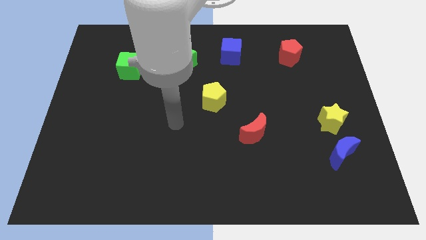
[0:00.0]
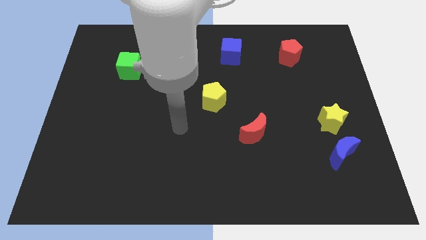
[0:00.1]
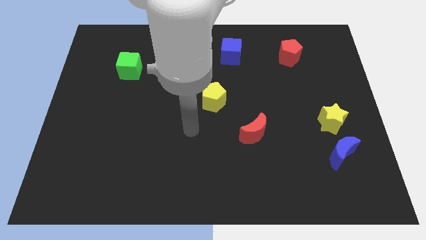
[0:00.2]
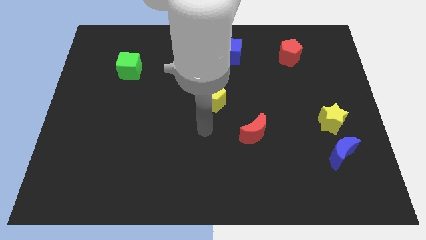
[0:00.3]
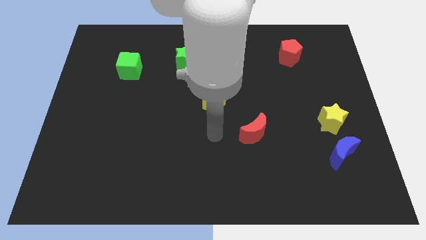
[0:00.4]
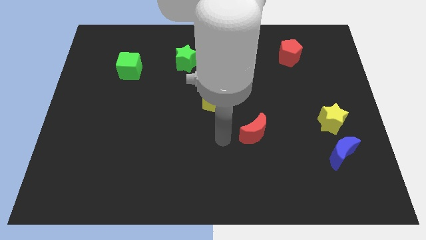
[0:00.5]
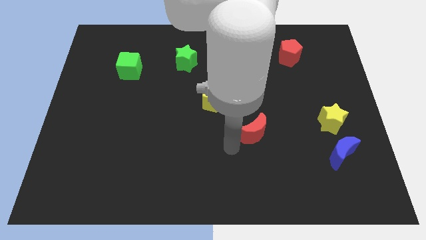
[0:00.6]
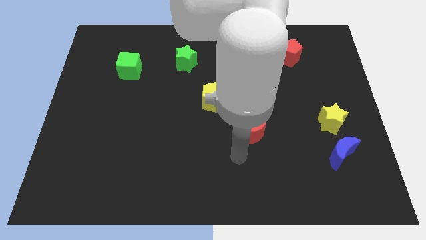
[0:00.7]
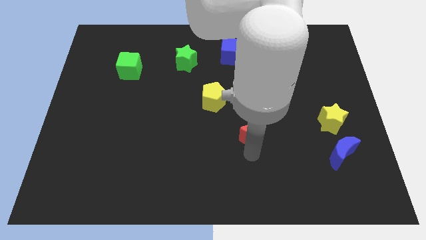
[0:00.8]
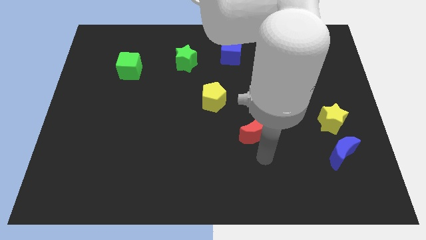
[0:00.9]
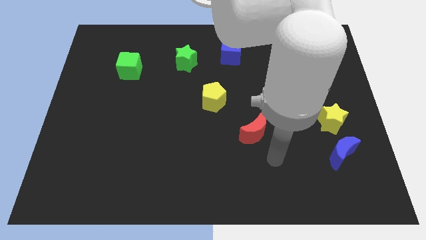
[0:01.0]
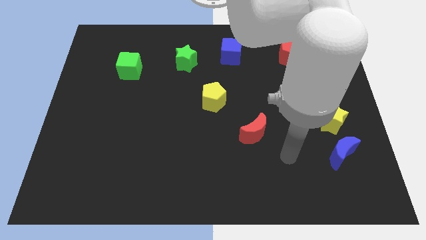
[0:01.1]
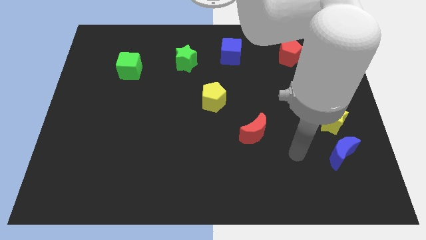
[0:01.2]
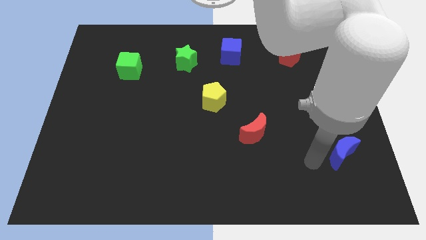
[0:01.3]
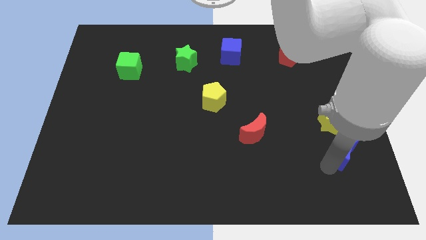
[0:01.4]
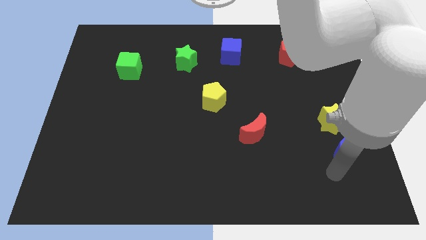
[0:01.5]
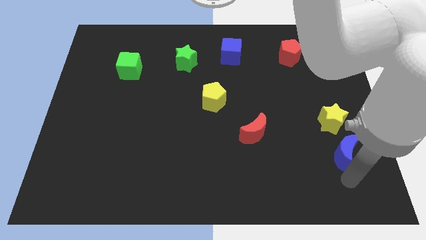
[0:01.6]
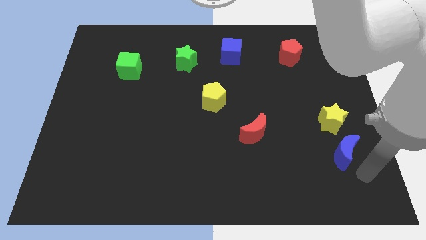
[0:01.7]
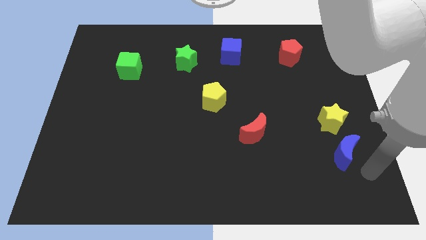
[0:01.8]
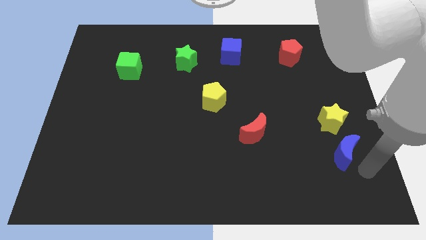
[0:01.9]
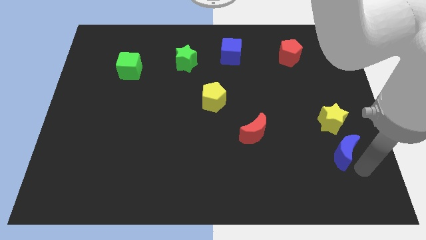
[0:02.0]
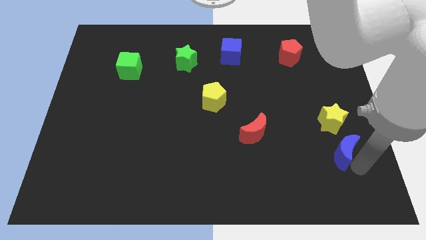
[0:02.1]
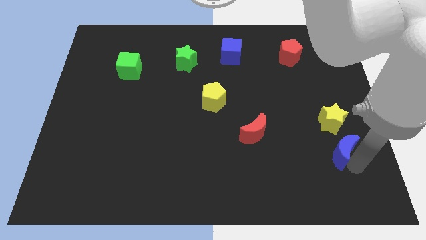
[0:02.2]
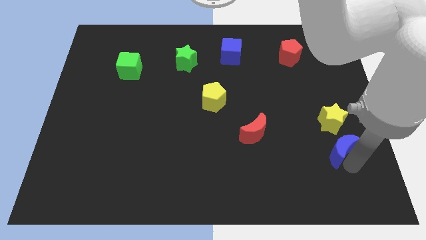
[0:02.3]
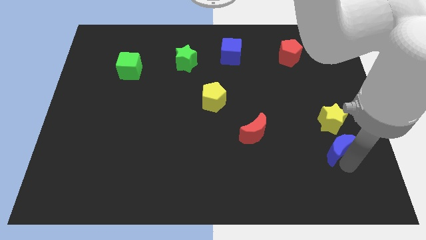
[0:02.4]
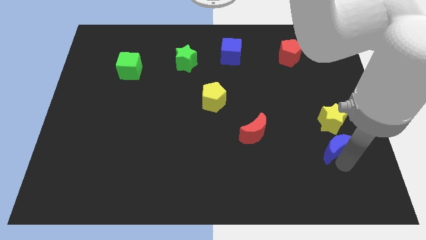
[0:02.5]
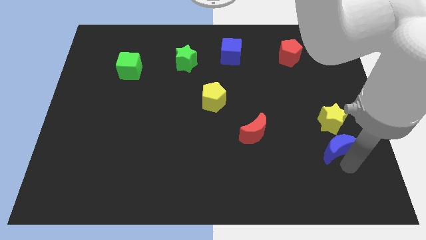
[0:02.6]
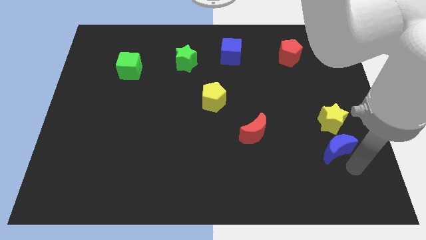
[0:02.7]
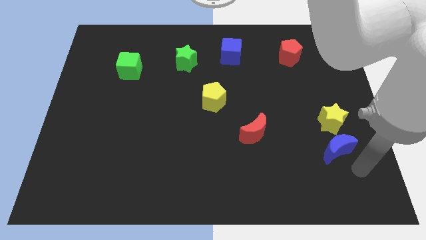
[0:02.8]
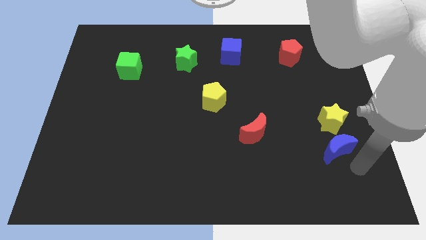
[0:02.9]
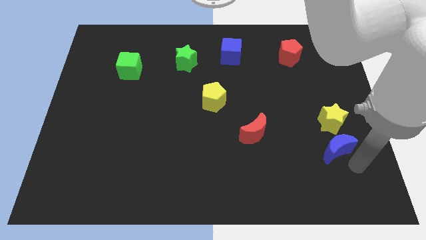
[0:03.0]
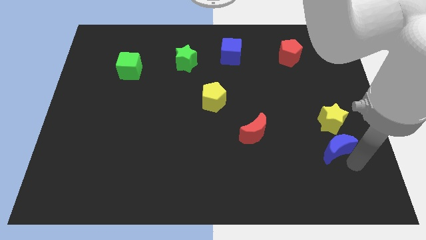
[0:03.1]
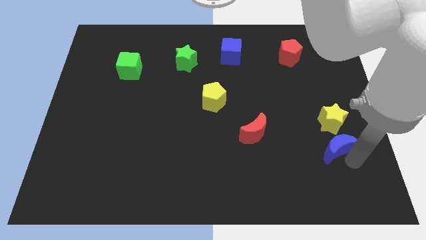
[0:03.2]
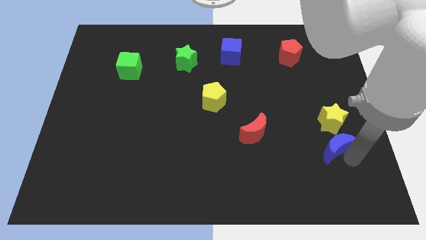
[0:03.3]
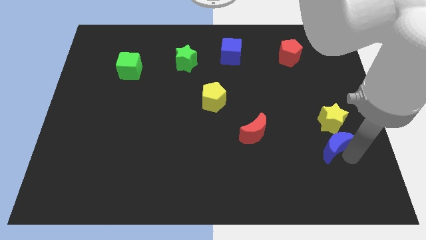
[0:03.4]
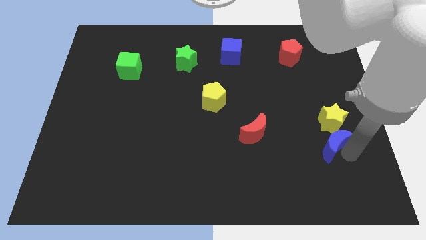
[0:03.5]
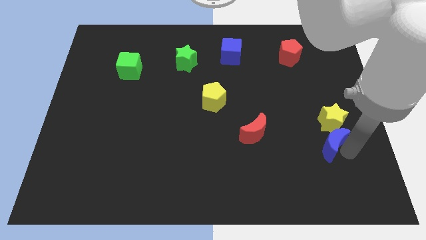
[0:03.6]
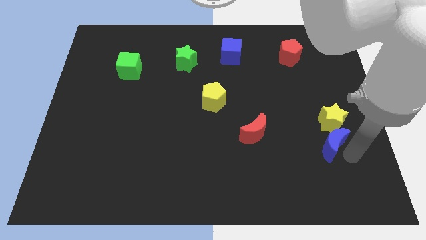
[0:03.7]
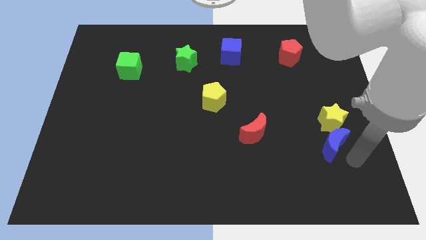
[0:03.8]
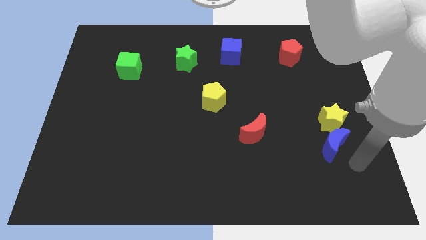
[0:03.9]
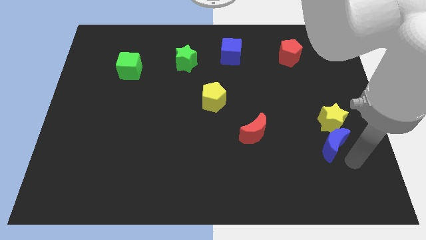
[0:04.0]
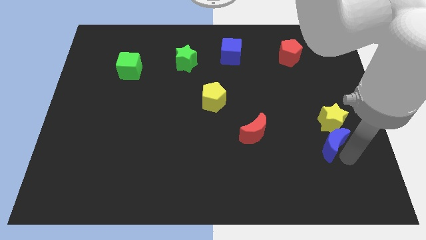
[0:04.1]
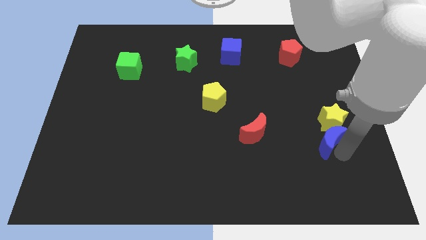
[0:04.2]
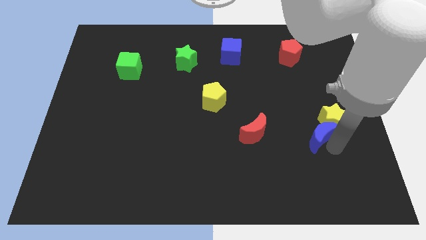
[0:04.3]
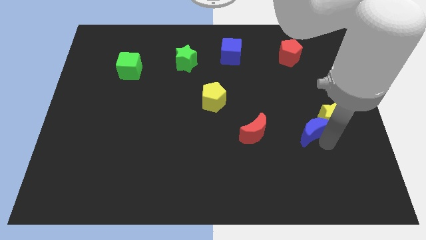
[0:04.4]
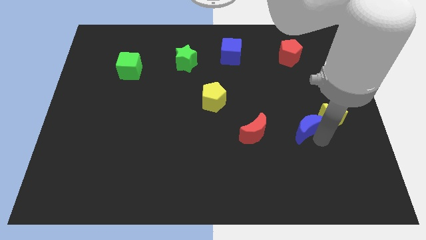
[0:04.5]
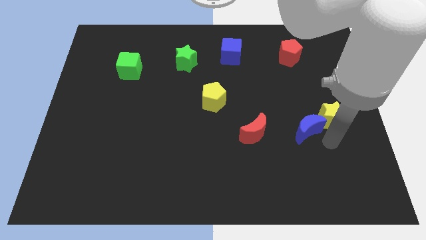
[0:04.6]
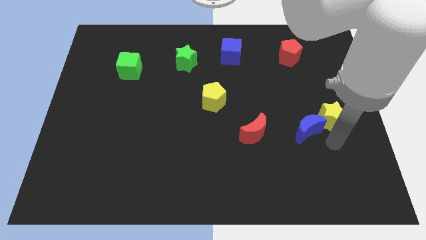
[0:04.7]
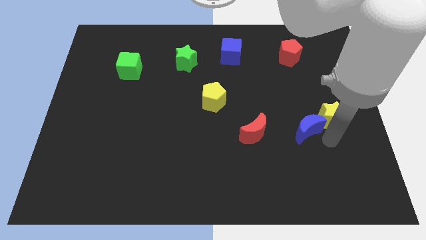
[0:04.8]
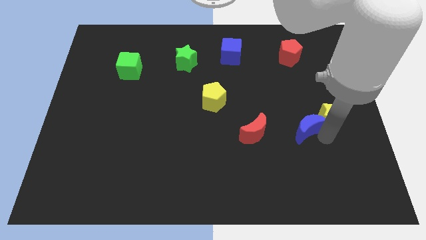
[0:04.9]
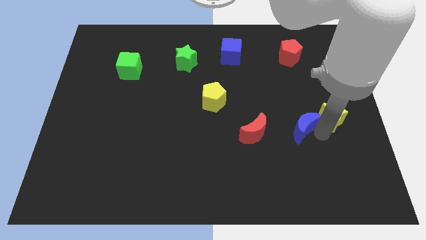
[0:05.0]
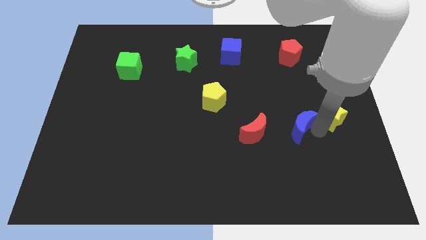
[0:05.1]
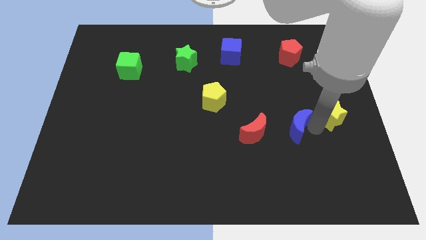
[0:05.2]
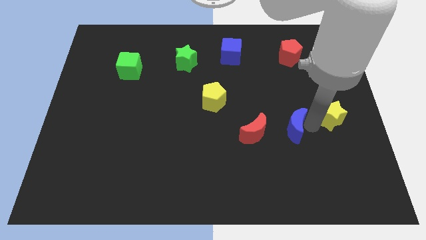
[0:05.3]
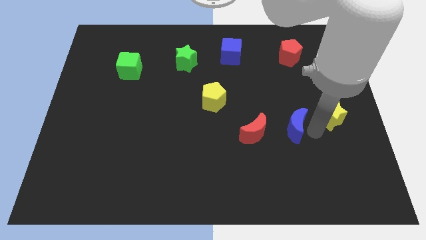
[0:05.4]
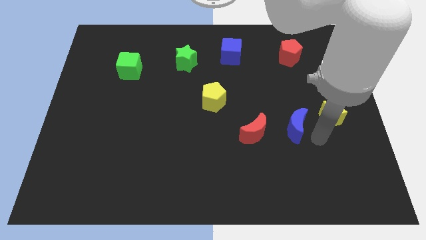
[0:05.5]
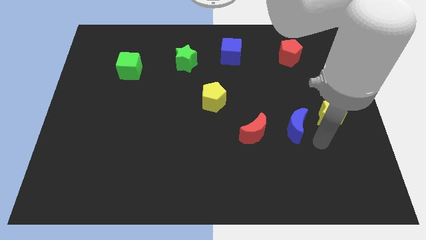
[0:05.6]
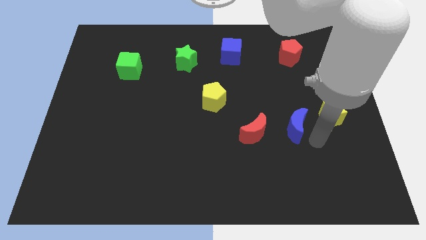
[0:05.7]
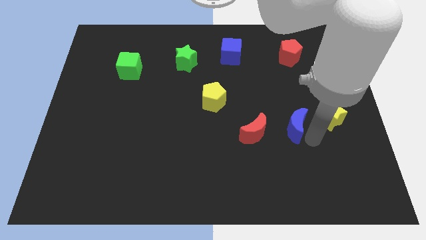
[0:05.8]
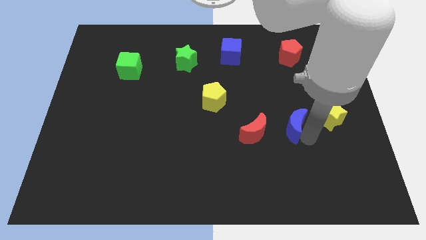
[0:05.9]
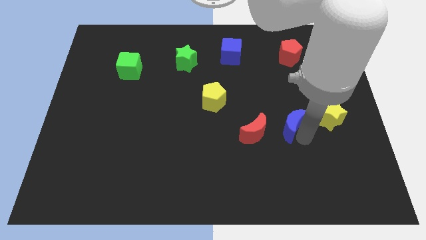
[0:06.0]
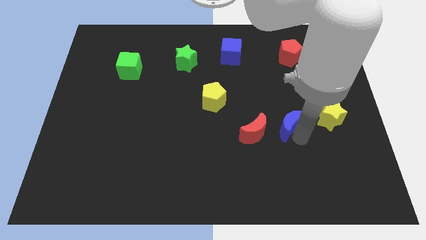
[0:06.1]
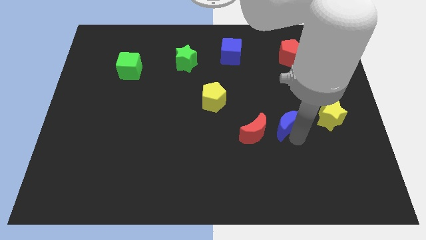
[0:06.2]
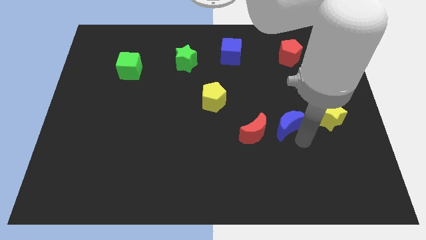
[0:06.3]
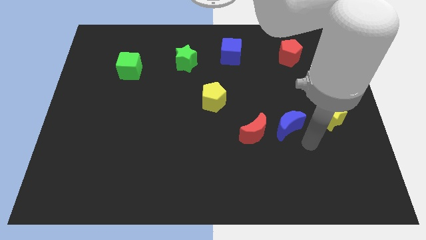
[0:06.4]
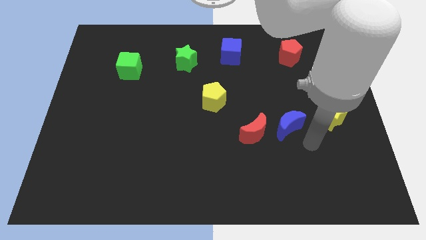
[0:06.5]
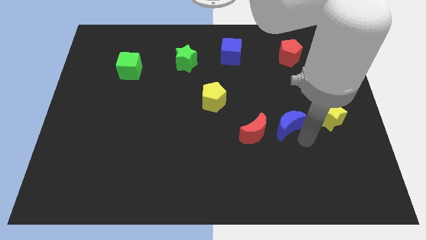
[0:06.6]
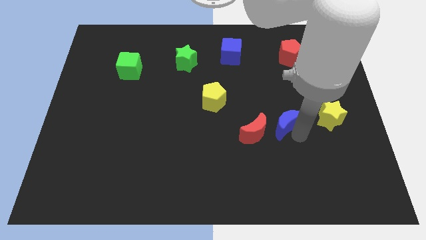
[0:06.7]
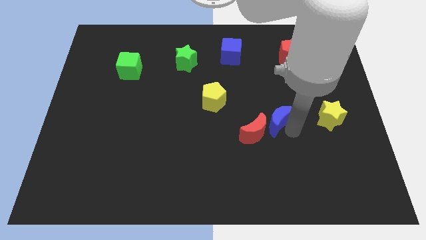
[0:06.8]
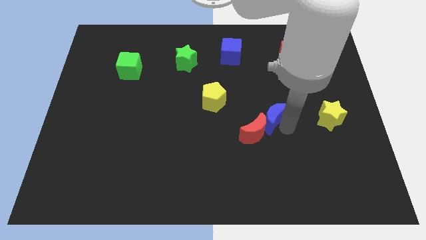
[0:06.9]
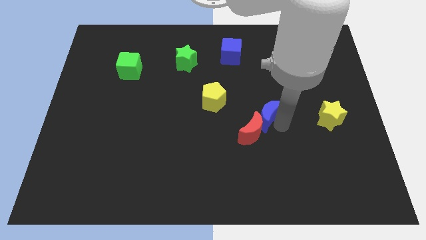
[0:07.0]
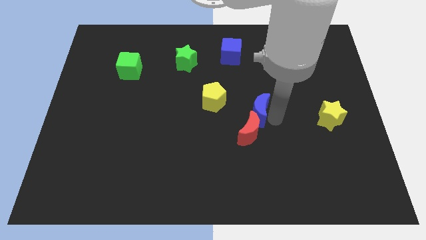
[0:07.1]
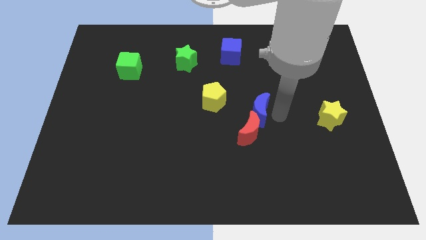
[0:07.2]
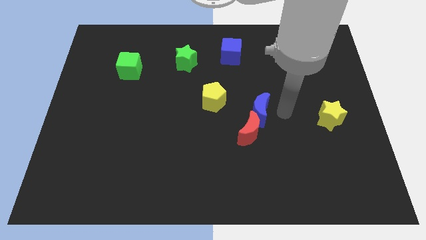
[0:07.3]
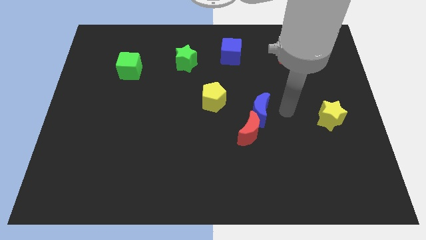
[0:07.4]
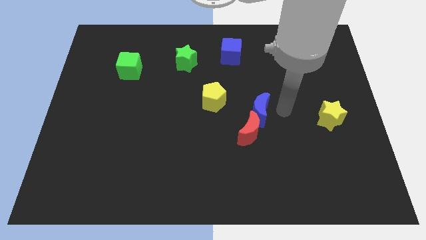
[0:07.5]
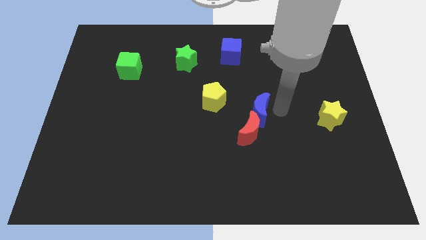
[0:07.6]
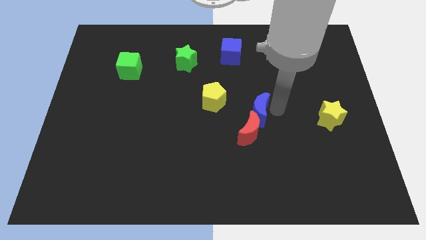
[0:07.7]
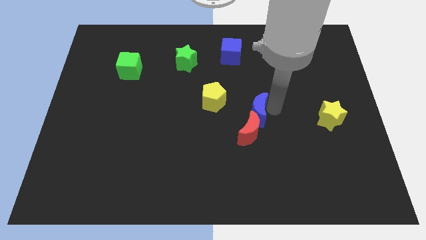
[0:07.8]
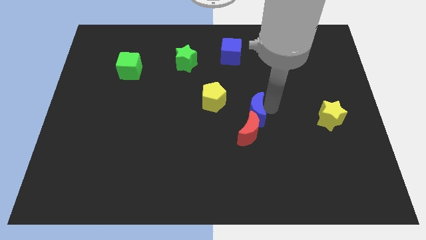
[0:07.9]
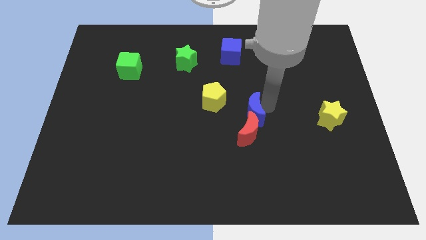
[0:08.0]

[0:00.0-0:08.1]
push the blue moon diagonally up and to the left of the red moon

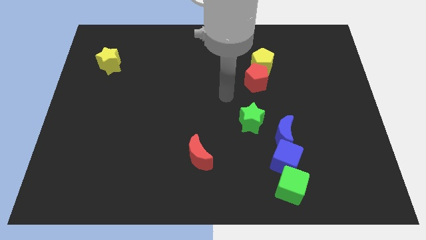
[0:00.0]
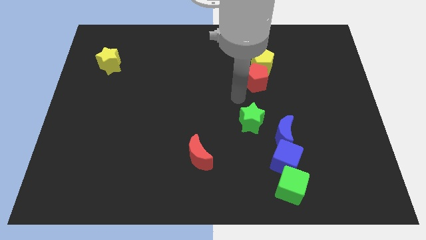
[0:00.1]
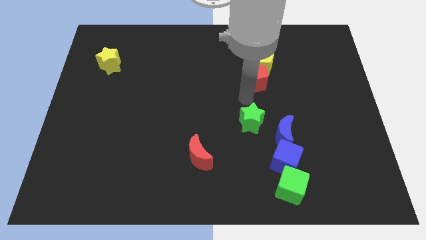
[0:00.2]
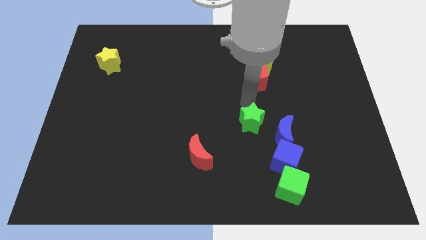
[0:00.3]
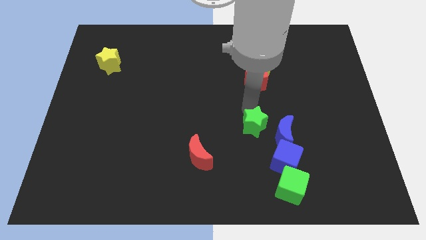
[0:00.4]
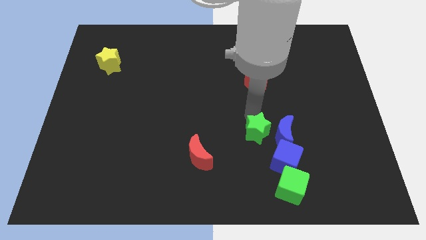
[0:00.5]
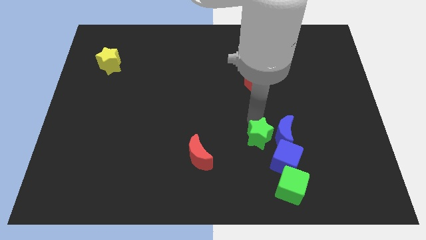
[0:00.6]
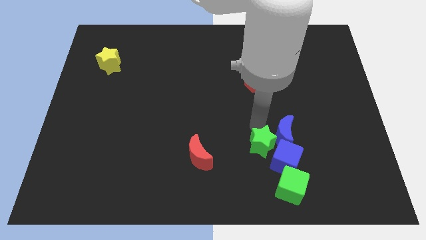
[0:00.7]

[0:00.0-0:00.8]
move the green star to the top left of the green cube
